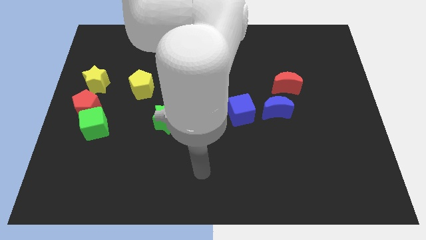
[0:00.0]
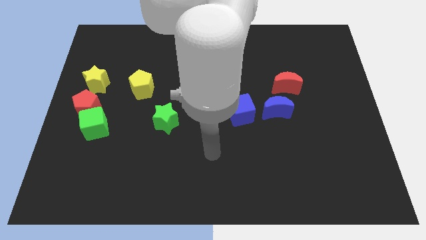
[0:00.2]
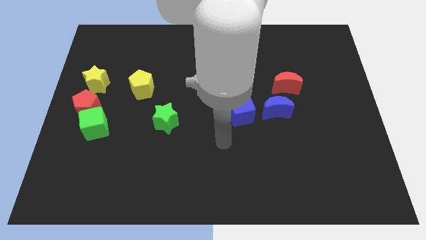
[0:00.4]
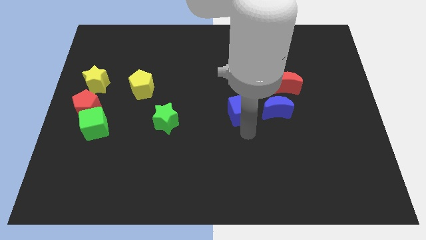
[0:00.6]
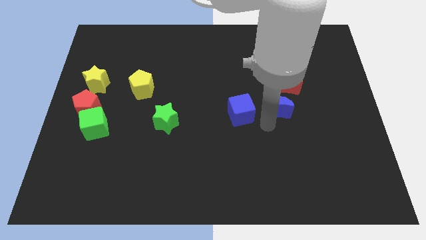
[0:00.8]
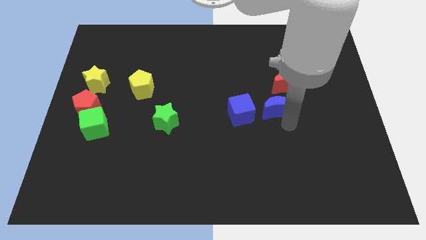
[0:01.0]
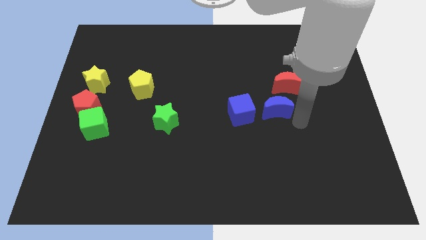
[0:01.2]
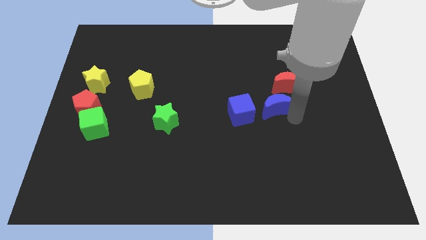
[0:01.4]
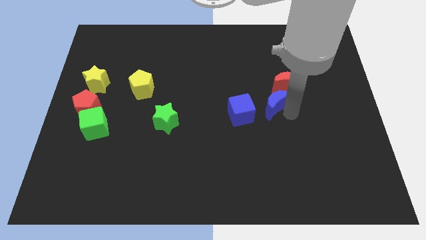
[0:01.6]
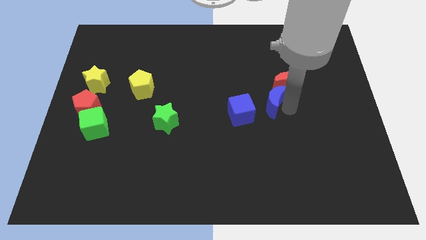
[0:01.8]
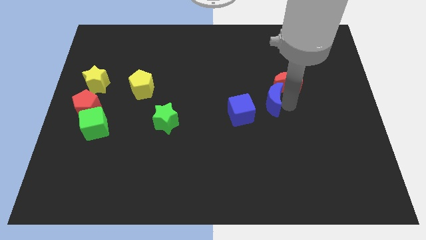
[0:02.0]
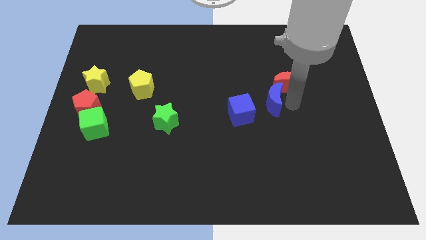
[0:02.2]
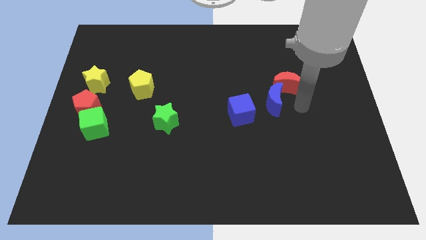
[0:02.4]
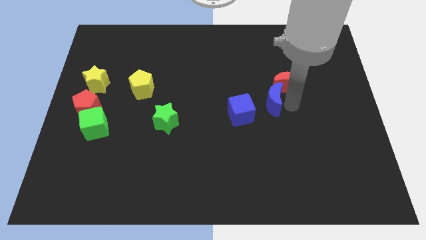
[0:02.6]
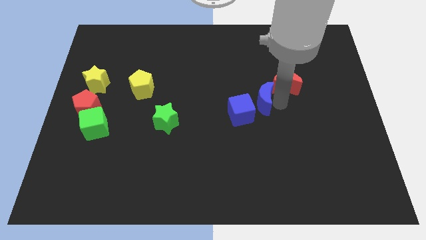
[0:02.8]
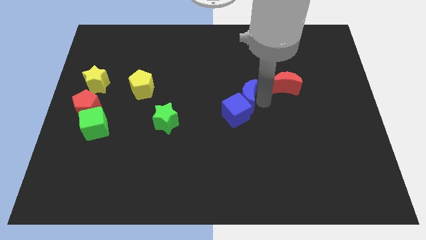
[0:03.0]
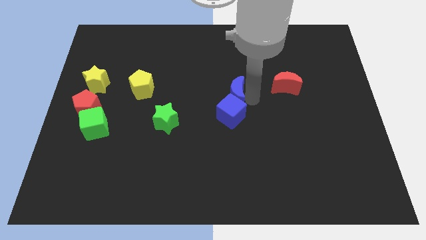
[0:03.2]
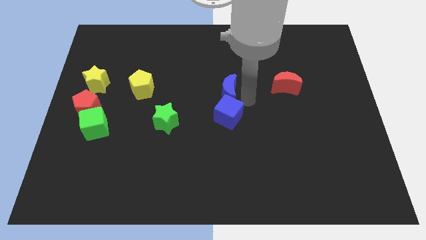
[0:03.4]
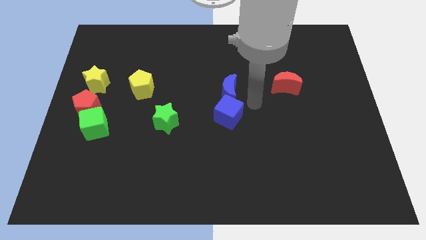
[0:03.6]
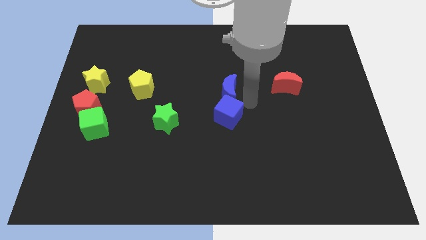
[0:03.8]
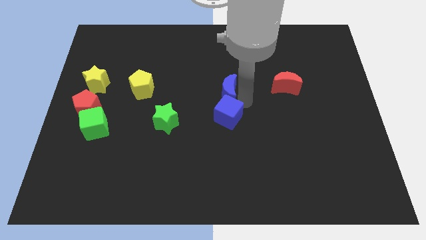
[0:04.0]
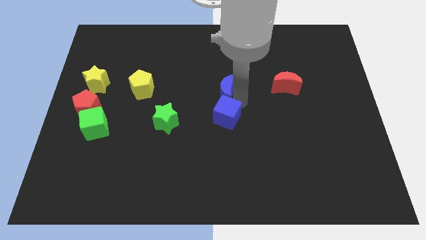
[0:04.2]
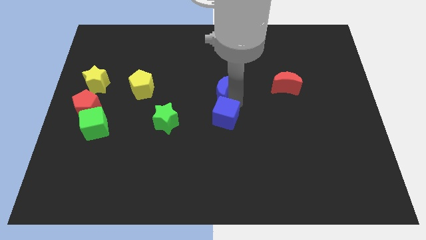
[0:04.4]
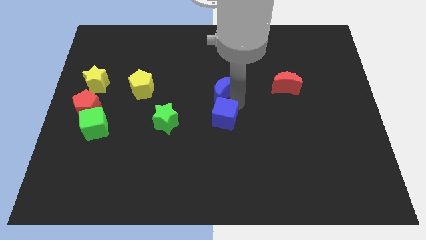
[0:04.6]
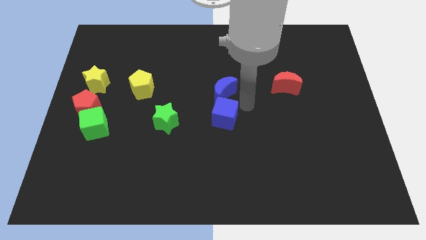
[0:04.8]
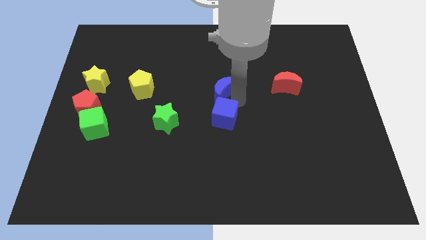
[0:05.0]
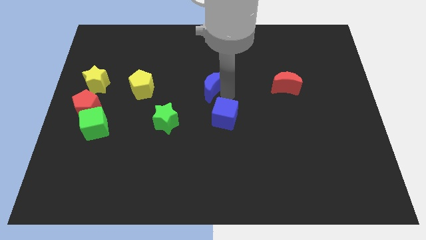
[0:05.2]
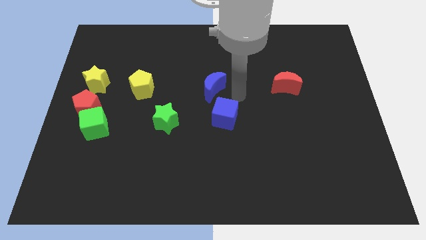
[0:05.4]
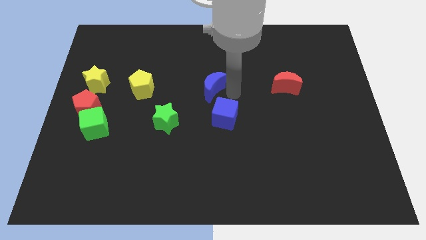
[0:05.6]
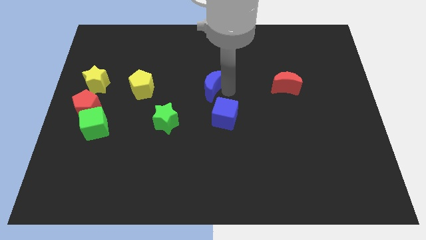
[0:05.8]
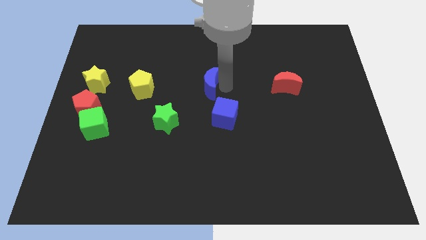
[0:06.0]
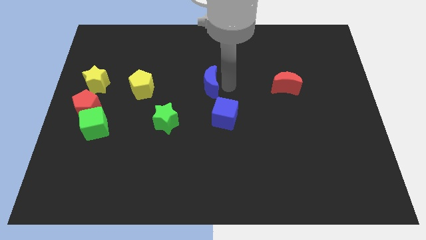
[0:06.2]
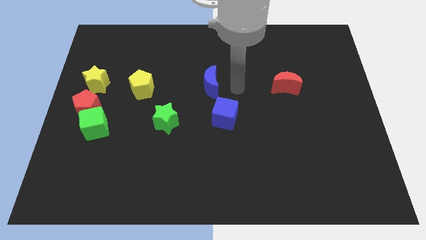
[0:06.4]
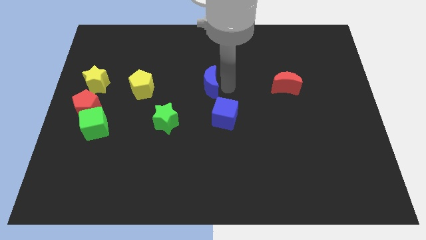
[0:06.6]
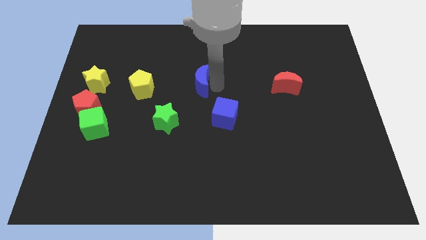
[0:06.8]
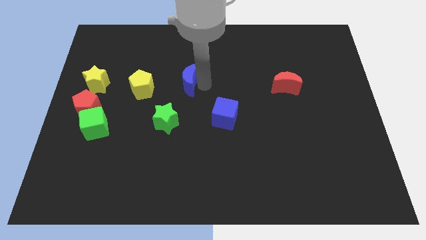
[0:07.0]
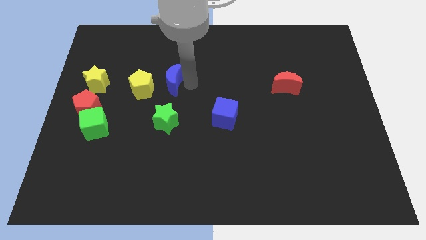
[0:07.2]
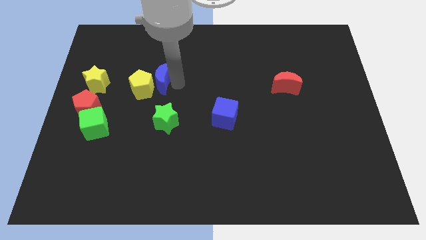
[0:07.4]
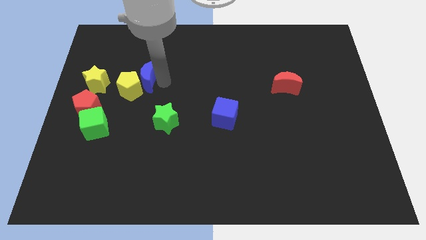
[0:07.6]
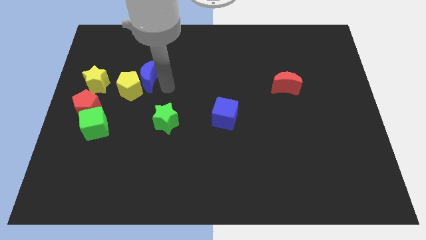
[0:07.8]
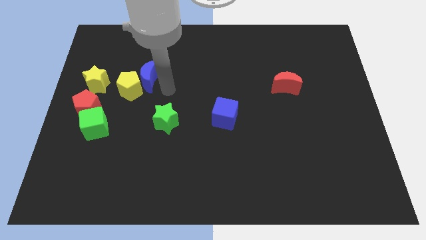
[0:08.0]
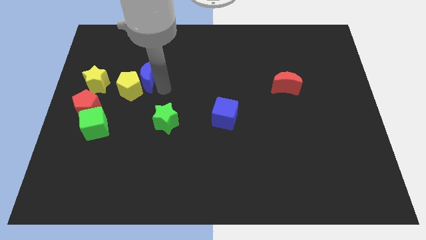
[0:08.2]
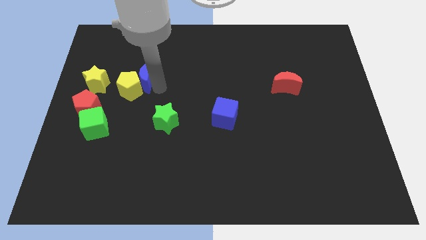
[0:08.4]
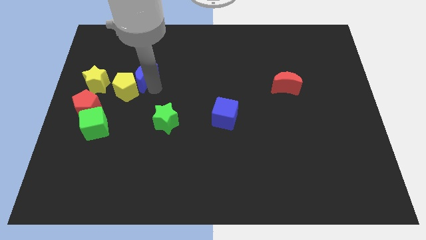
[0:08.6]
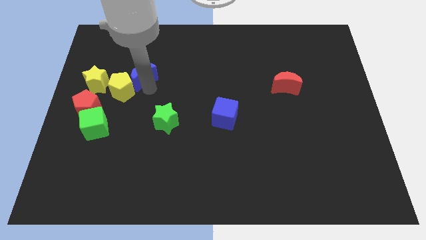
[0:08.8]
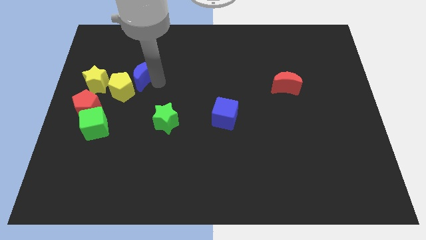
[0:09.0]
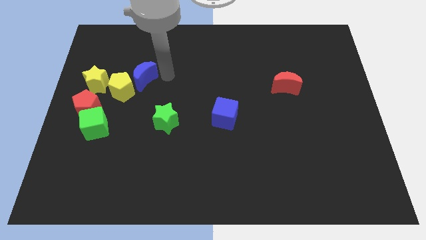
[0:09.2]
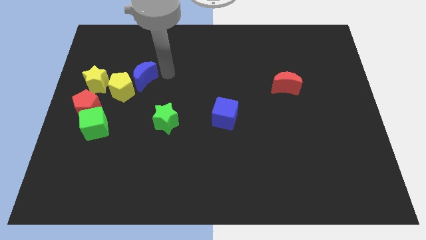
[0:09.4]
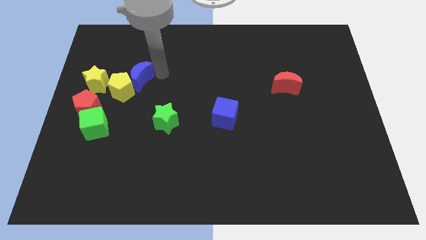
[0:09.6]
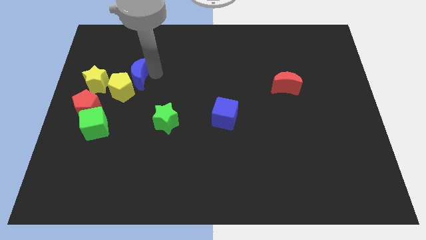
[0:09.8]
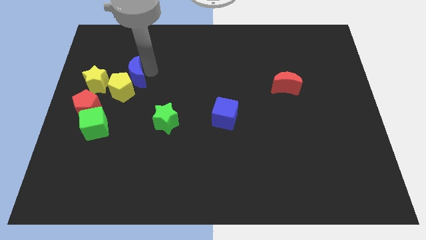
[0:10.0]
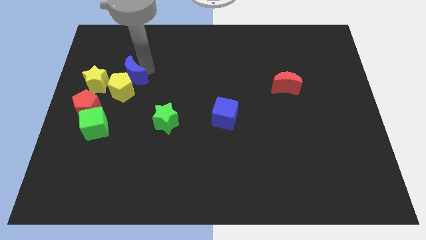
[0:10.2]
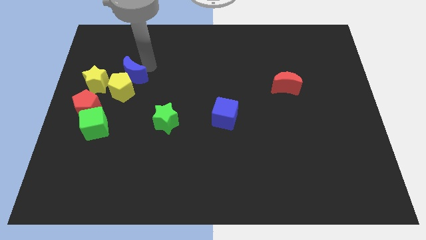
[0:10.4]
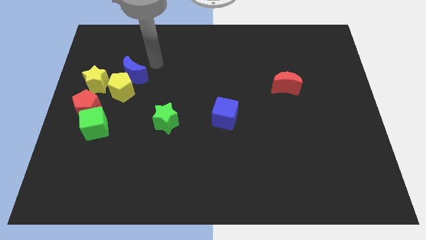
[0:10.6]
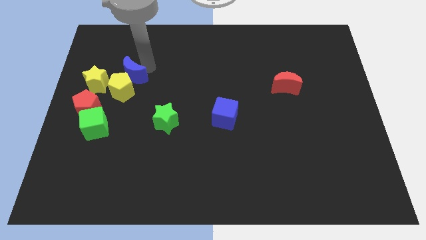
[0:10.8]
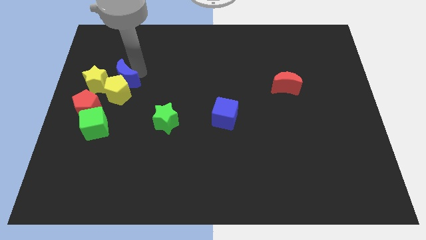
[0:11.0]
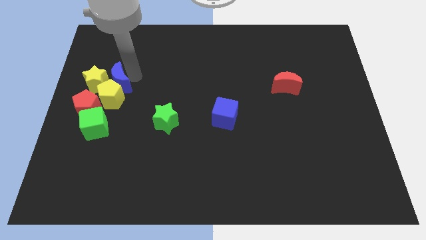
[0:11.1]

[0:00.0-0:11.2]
move the blue moon to the yellow star

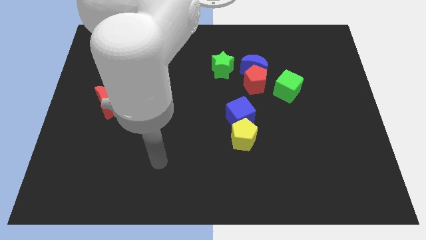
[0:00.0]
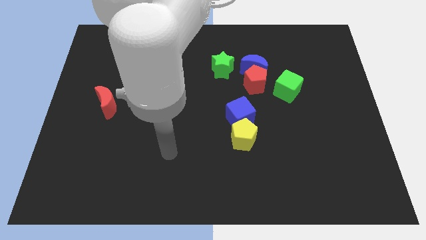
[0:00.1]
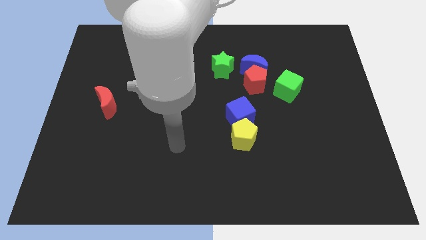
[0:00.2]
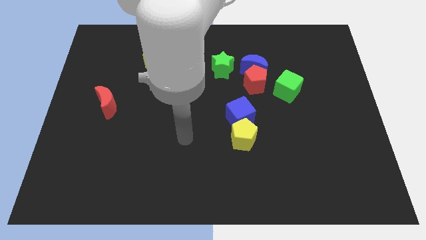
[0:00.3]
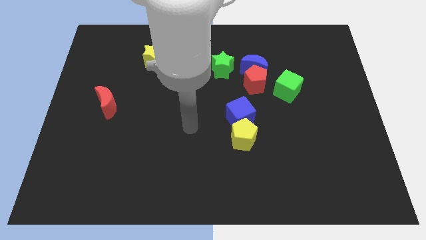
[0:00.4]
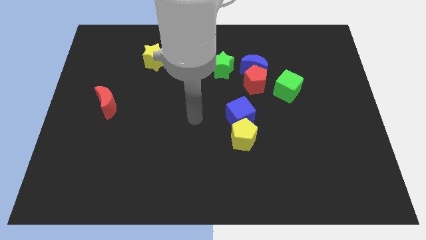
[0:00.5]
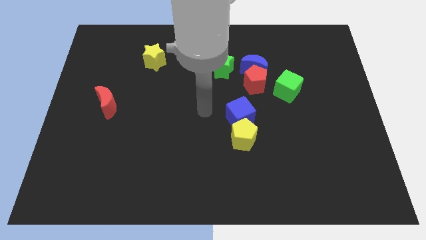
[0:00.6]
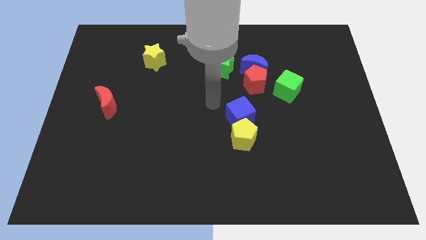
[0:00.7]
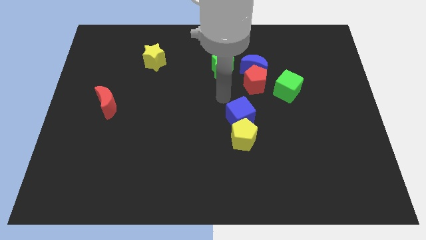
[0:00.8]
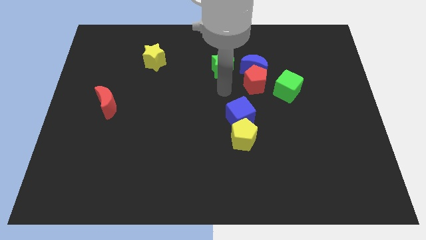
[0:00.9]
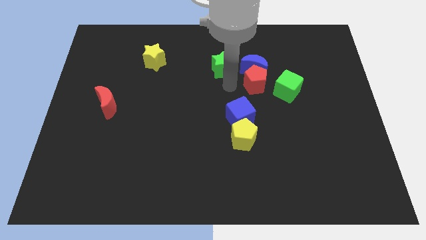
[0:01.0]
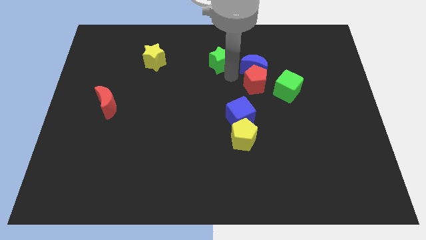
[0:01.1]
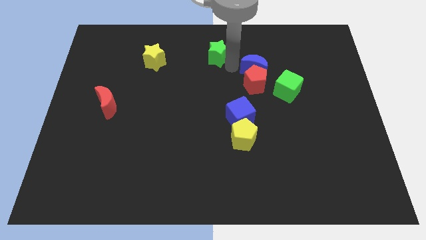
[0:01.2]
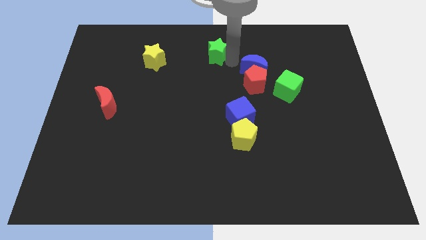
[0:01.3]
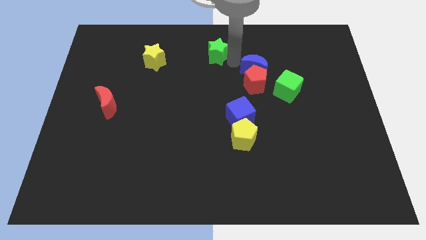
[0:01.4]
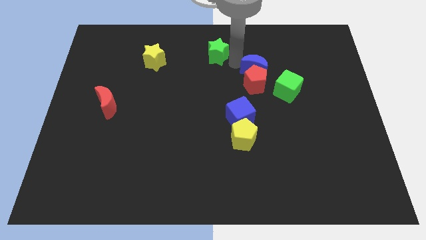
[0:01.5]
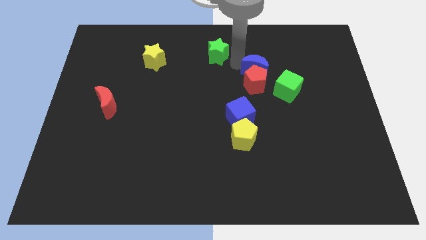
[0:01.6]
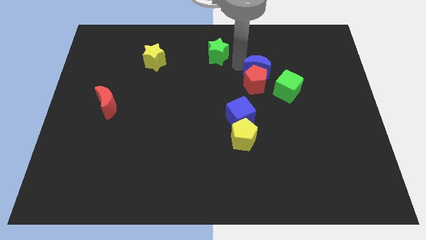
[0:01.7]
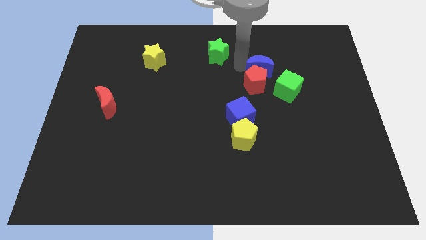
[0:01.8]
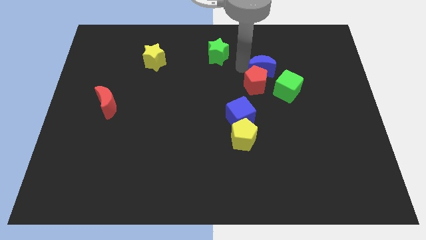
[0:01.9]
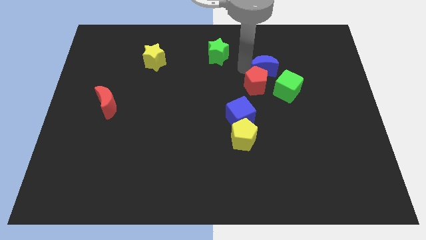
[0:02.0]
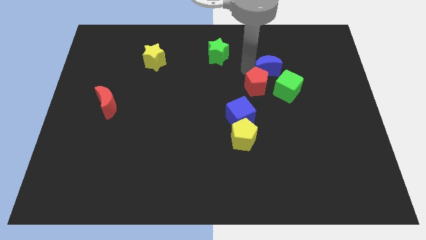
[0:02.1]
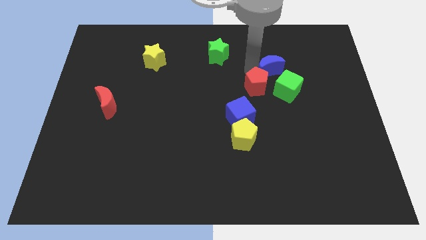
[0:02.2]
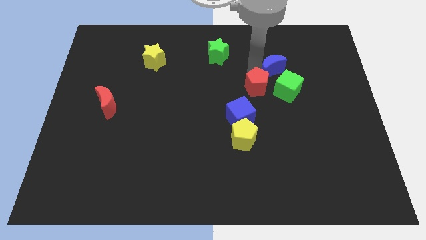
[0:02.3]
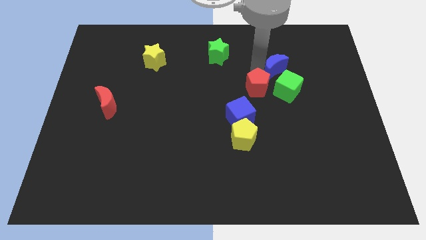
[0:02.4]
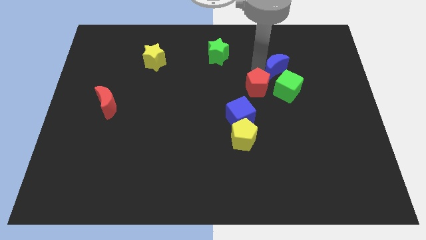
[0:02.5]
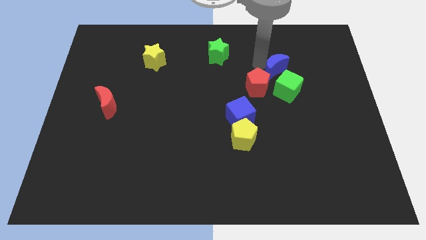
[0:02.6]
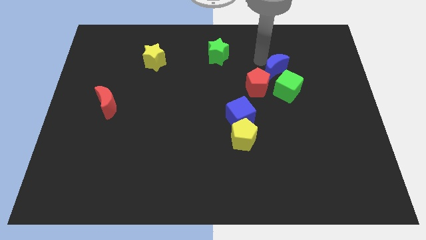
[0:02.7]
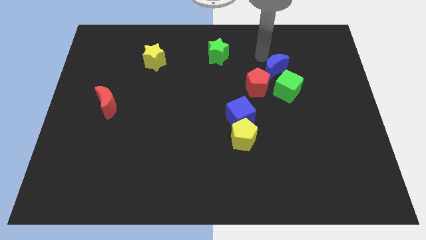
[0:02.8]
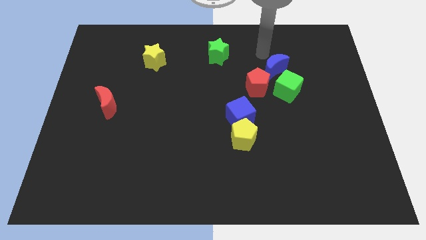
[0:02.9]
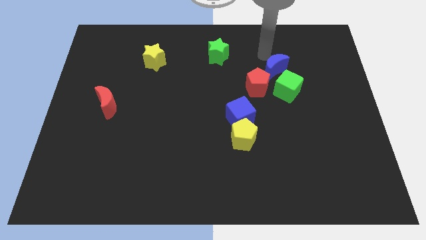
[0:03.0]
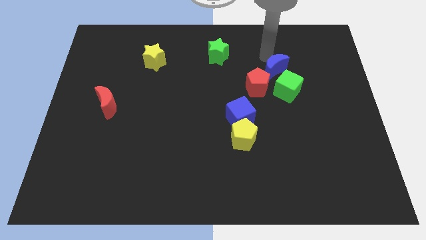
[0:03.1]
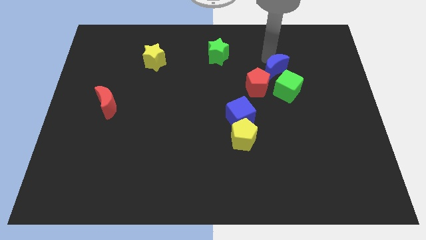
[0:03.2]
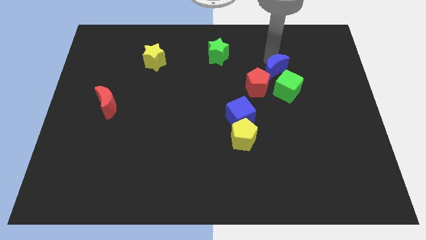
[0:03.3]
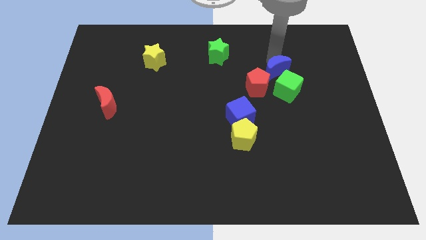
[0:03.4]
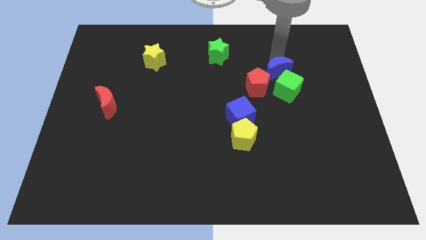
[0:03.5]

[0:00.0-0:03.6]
move the blue moon to the green cube
